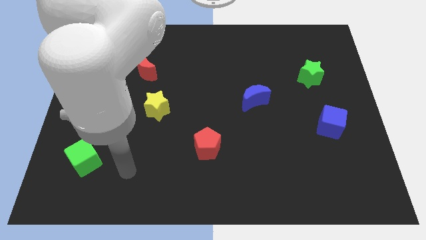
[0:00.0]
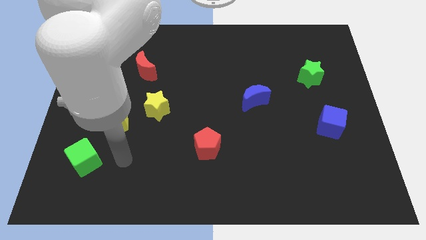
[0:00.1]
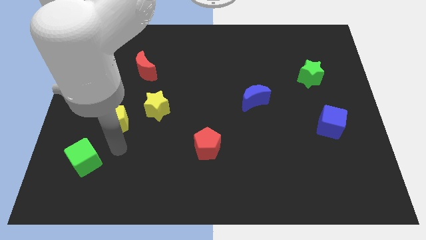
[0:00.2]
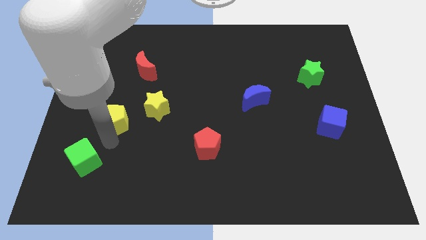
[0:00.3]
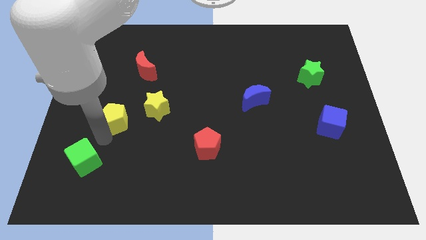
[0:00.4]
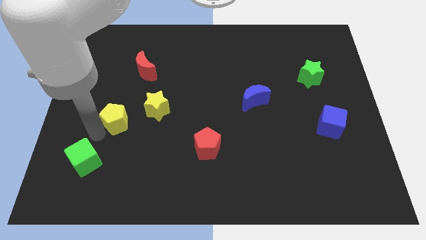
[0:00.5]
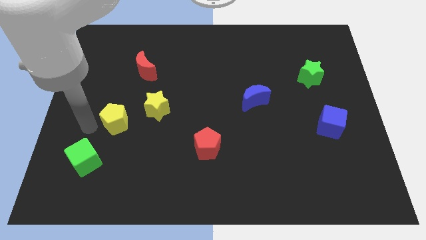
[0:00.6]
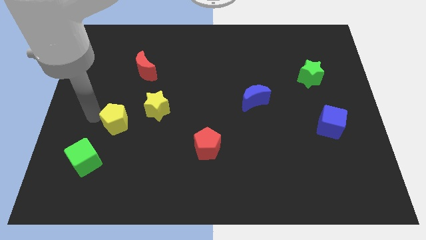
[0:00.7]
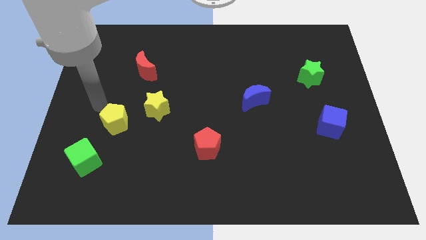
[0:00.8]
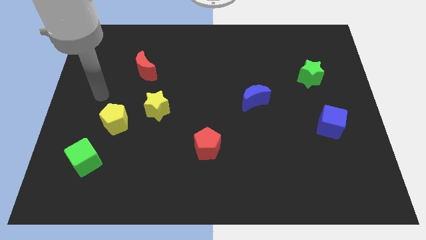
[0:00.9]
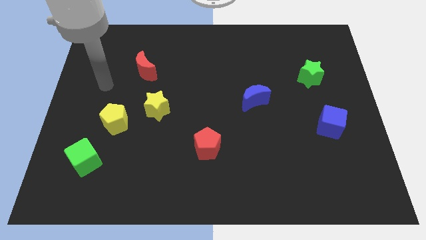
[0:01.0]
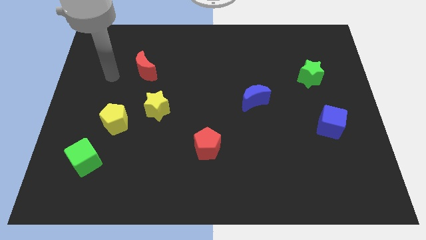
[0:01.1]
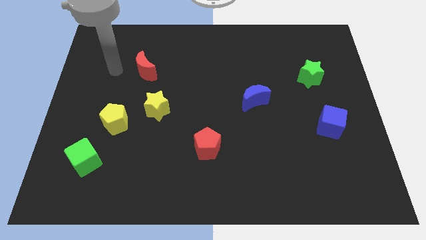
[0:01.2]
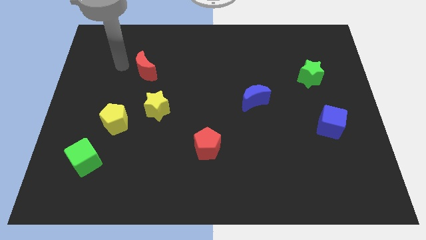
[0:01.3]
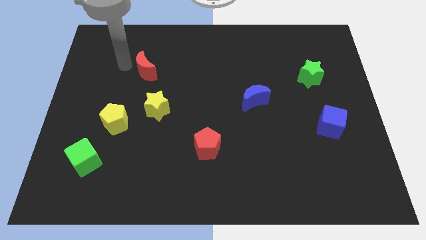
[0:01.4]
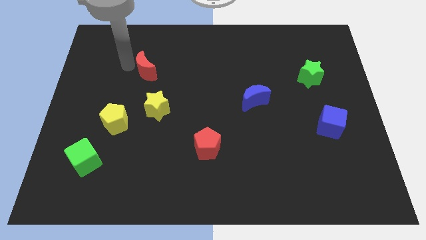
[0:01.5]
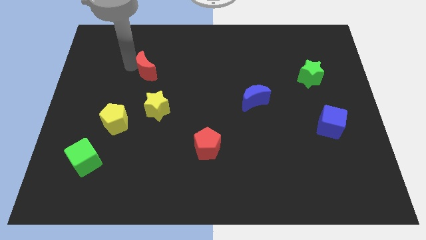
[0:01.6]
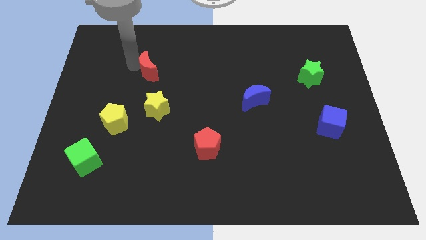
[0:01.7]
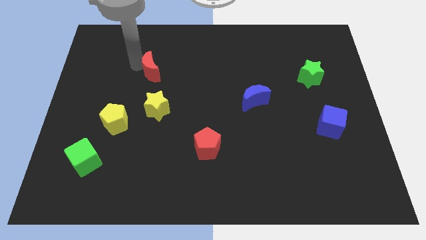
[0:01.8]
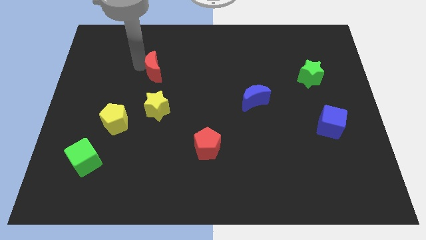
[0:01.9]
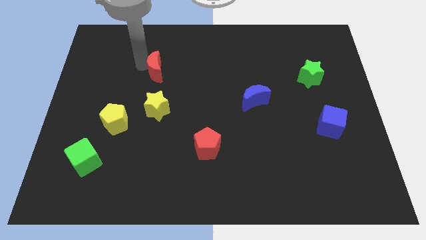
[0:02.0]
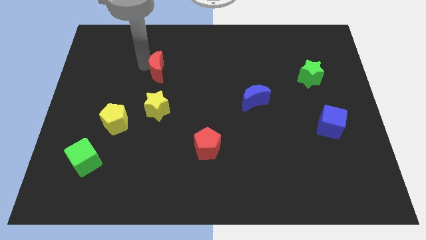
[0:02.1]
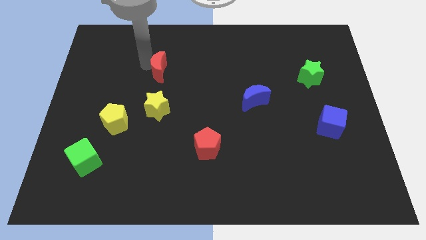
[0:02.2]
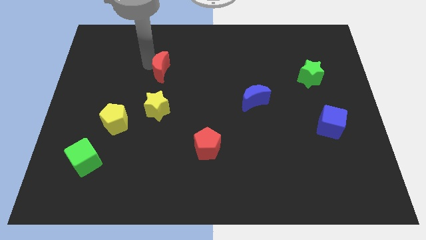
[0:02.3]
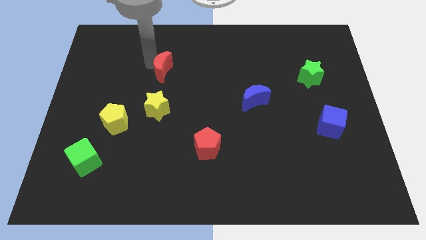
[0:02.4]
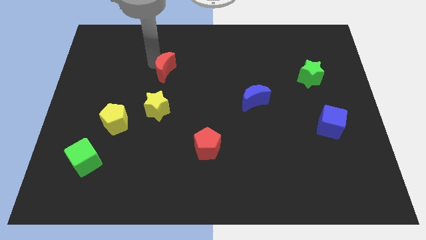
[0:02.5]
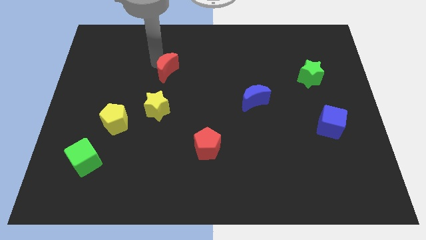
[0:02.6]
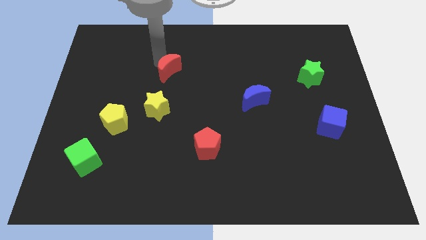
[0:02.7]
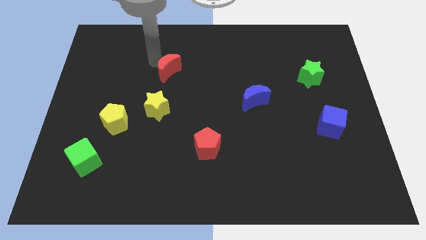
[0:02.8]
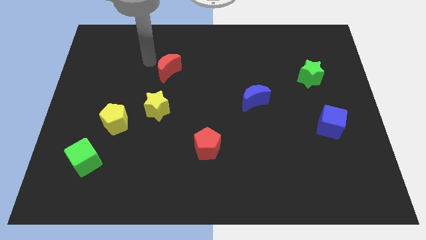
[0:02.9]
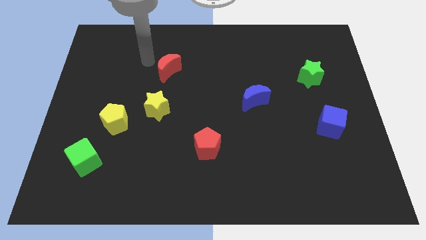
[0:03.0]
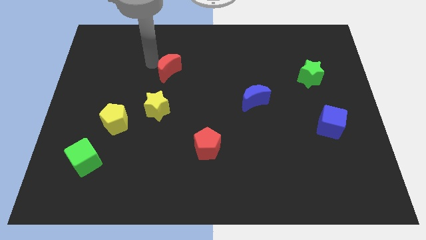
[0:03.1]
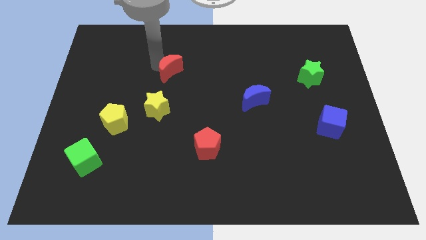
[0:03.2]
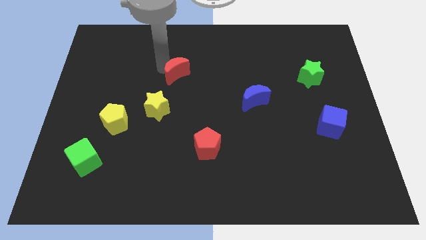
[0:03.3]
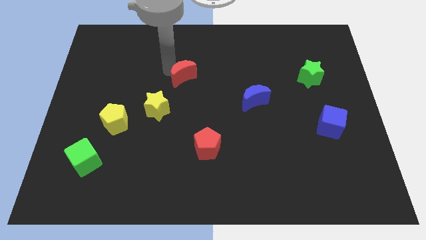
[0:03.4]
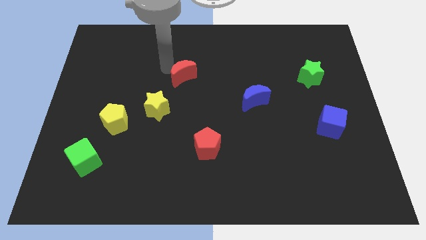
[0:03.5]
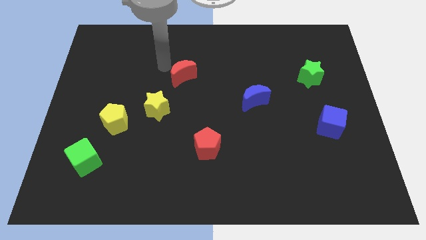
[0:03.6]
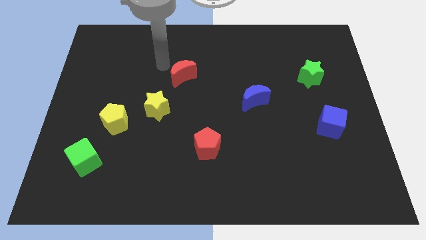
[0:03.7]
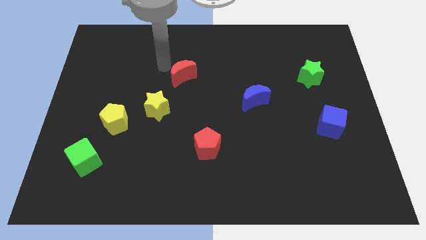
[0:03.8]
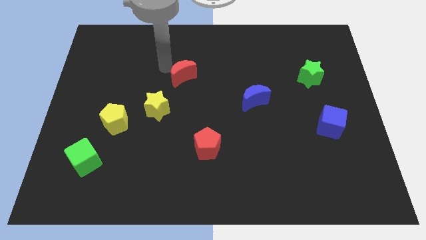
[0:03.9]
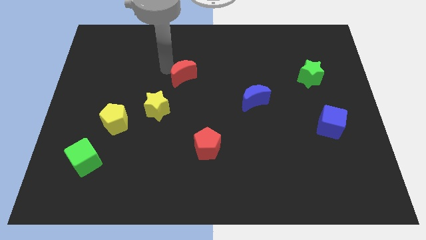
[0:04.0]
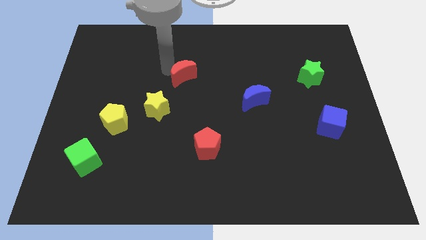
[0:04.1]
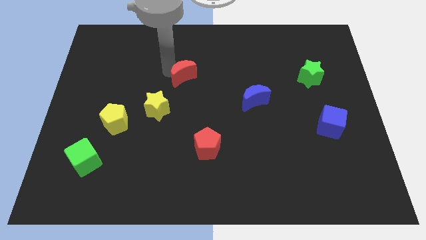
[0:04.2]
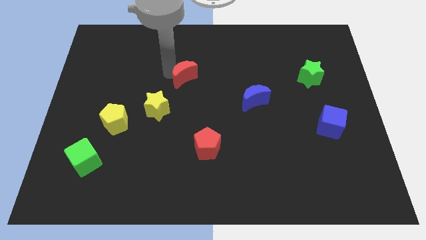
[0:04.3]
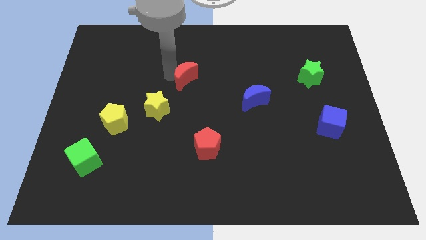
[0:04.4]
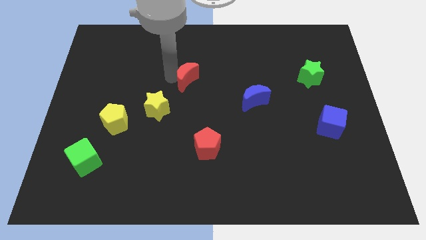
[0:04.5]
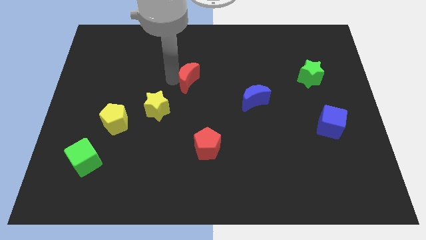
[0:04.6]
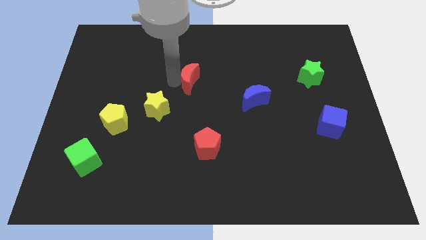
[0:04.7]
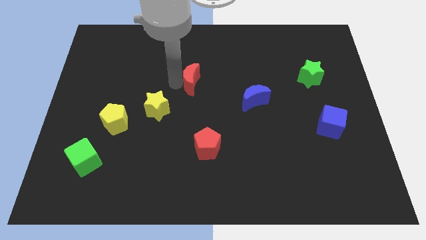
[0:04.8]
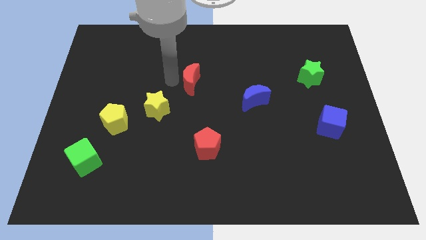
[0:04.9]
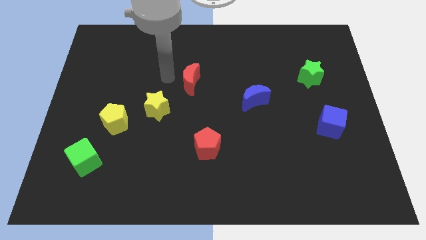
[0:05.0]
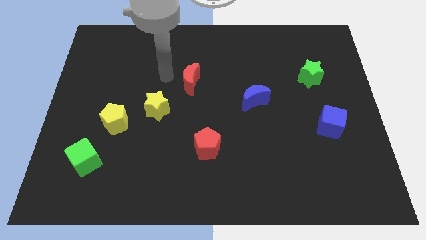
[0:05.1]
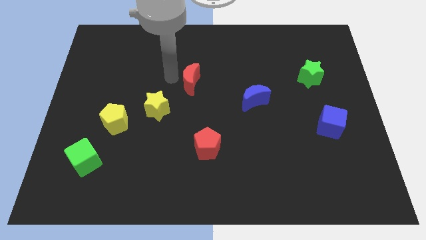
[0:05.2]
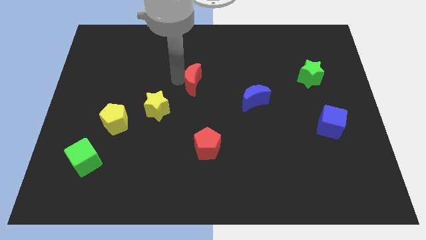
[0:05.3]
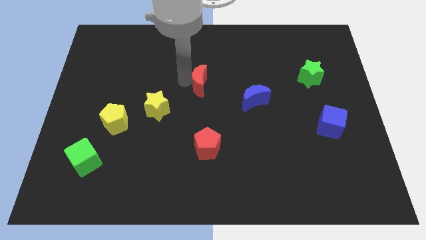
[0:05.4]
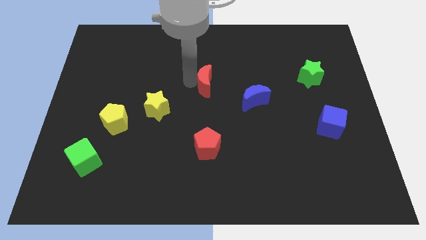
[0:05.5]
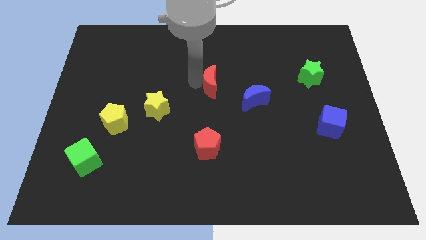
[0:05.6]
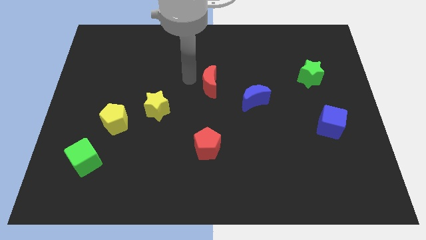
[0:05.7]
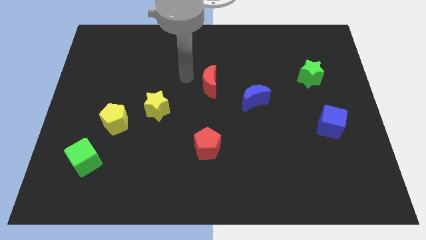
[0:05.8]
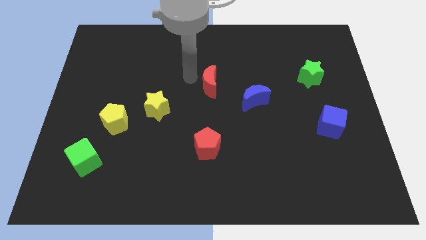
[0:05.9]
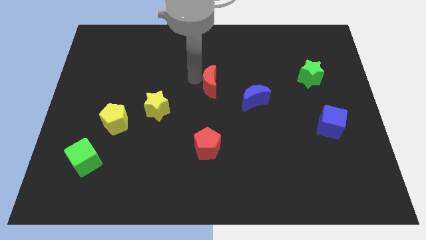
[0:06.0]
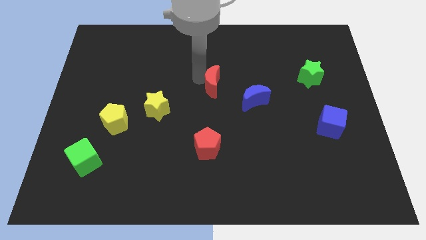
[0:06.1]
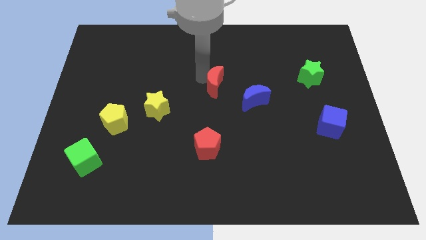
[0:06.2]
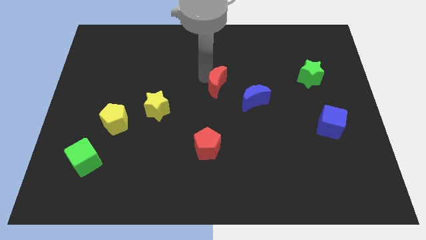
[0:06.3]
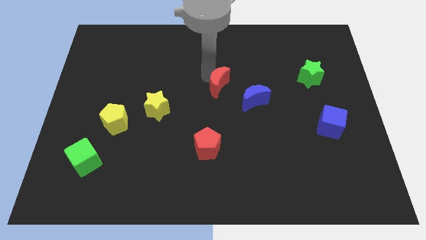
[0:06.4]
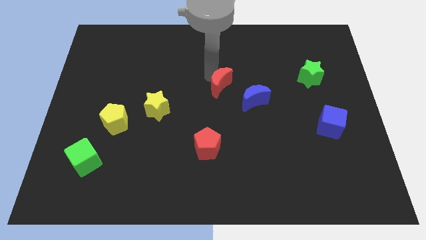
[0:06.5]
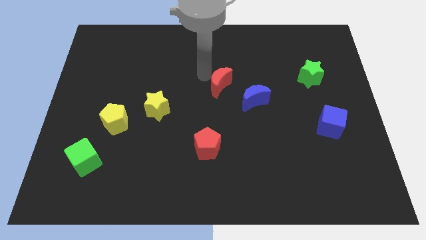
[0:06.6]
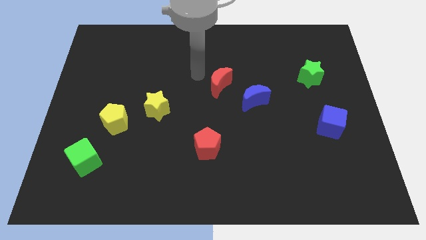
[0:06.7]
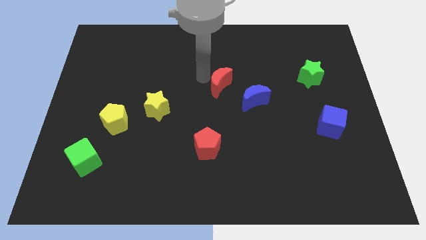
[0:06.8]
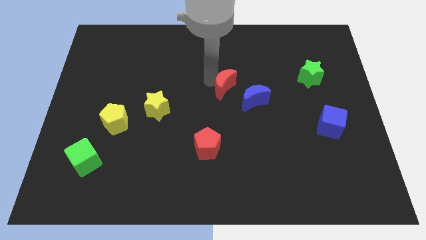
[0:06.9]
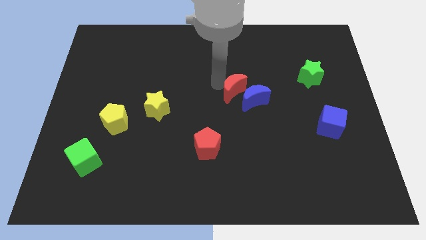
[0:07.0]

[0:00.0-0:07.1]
put the red moon next to the blue moon

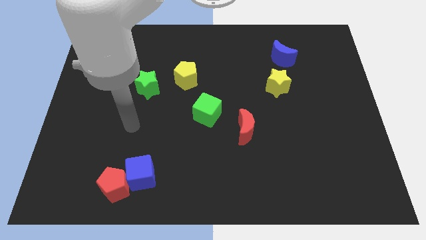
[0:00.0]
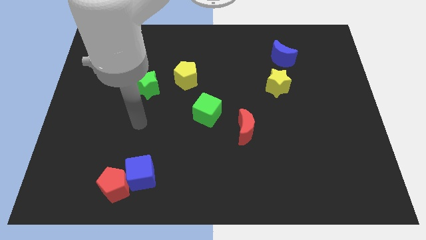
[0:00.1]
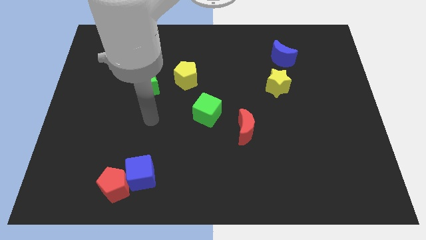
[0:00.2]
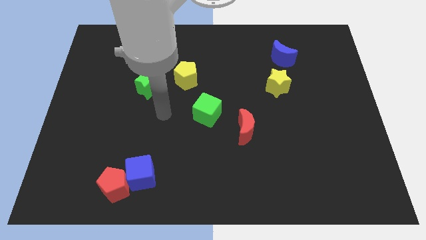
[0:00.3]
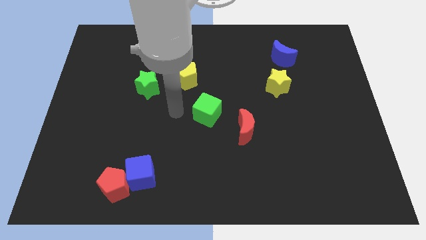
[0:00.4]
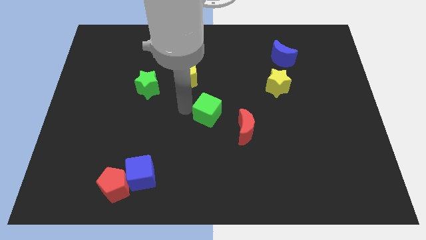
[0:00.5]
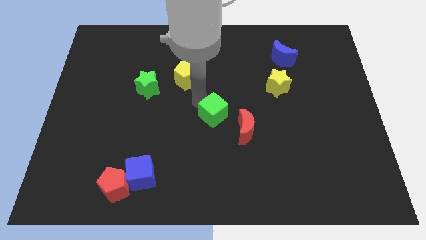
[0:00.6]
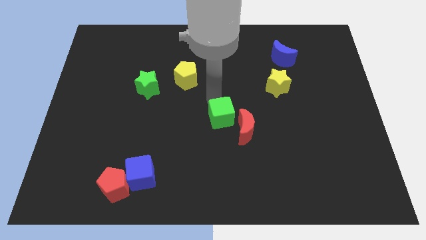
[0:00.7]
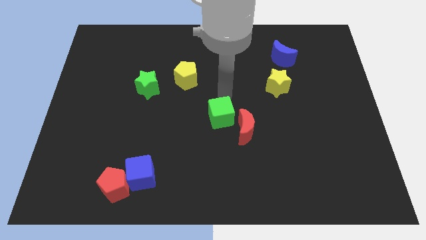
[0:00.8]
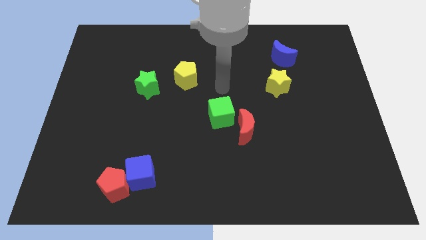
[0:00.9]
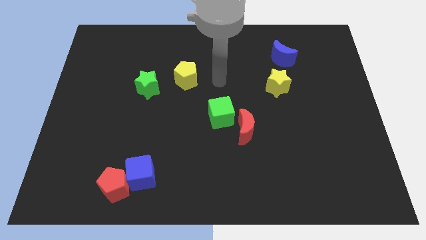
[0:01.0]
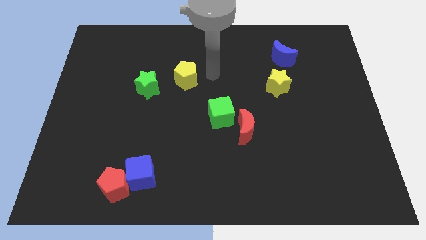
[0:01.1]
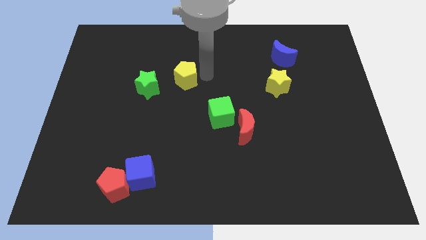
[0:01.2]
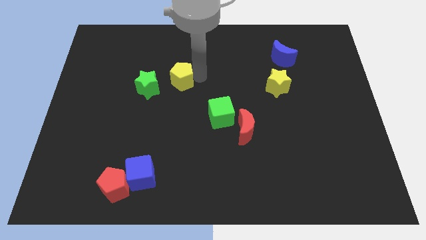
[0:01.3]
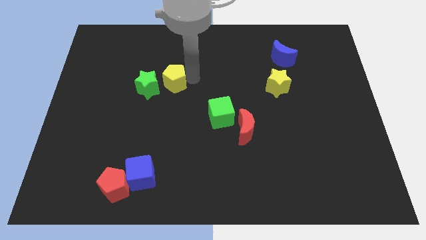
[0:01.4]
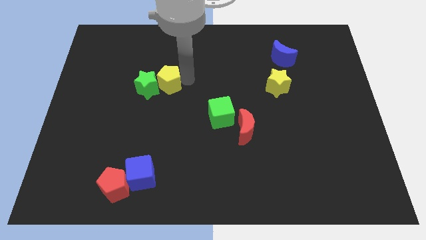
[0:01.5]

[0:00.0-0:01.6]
put the yellow pentagon to the green star
